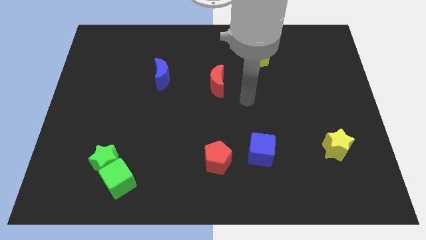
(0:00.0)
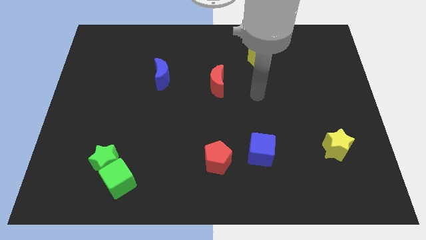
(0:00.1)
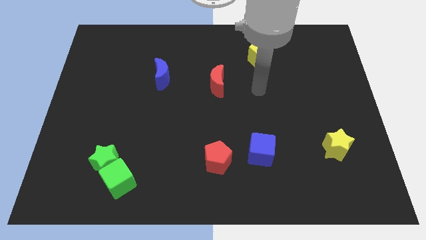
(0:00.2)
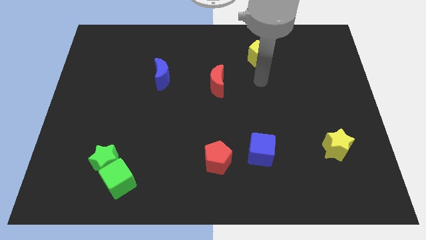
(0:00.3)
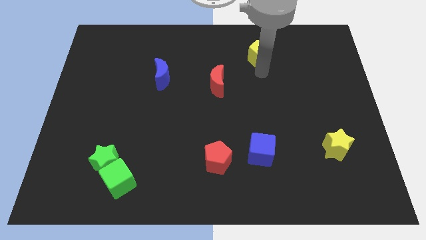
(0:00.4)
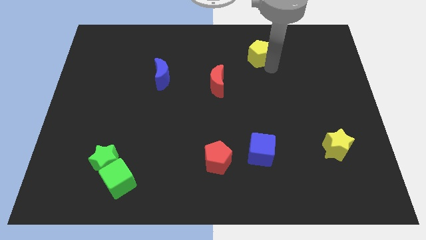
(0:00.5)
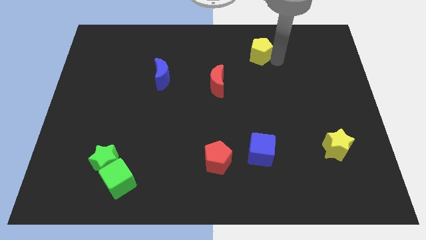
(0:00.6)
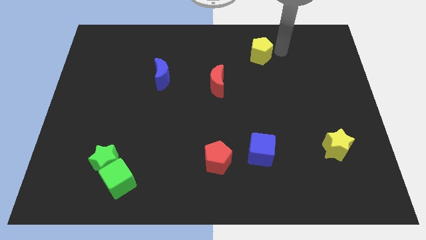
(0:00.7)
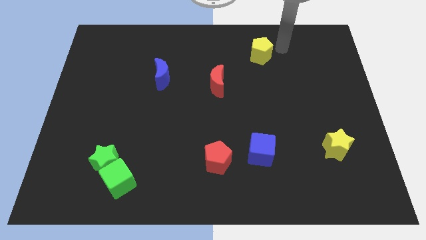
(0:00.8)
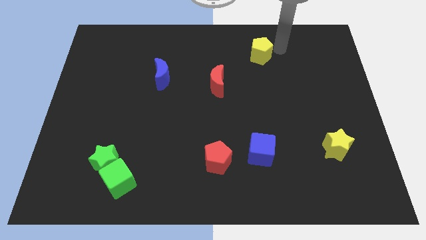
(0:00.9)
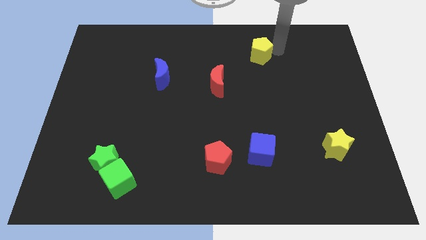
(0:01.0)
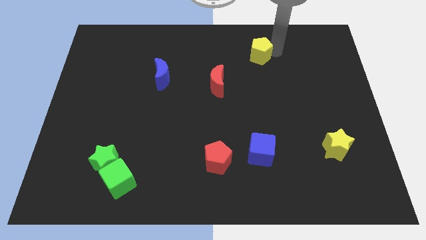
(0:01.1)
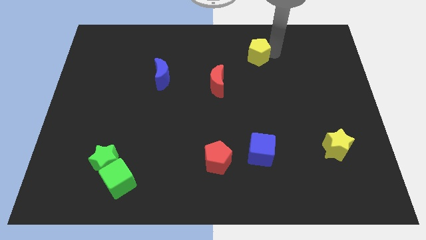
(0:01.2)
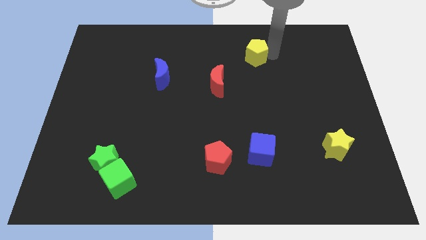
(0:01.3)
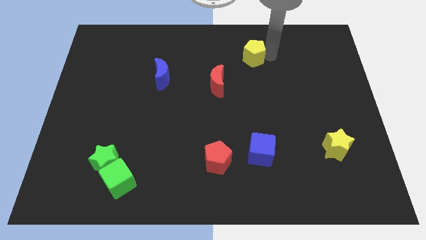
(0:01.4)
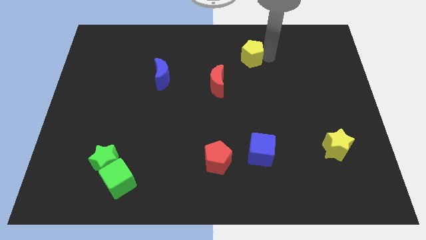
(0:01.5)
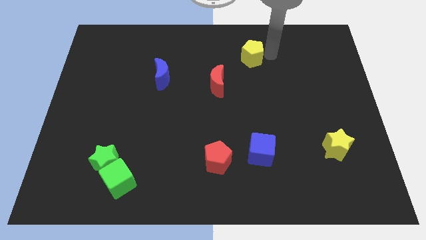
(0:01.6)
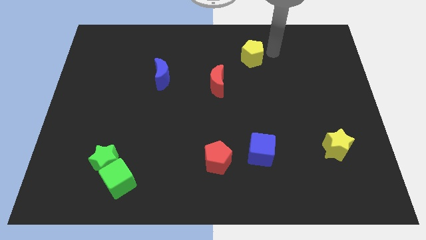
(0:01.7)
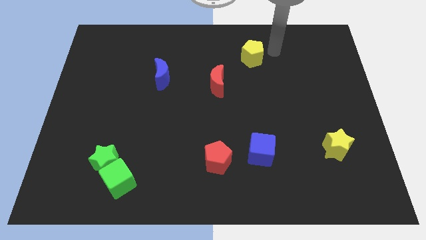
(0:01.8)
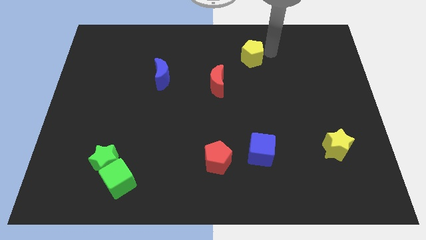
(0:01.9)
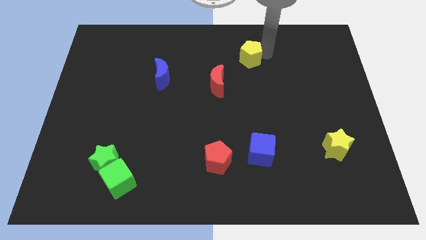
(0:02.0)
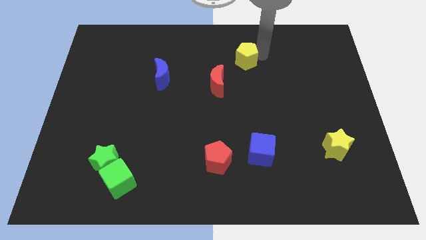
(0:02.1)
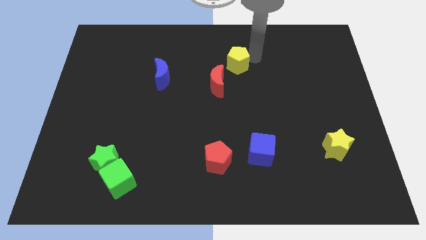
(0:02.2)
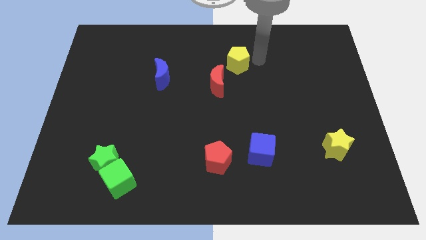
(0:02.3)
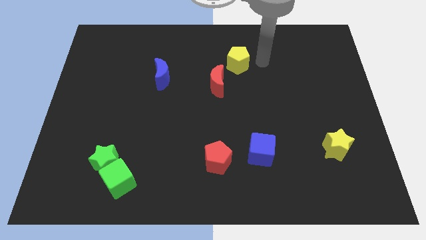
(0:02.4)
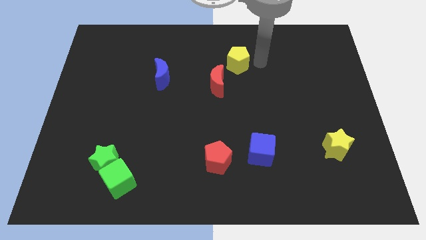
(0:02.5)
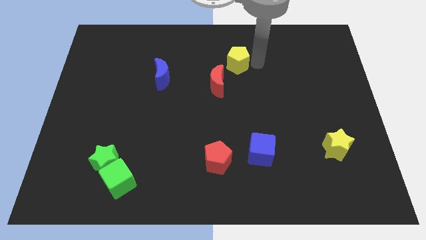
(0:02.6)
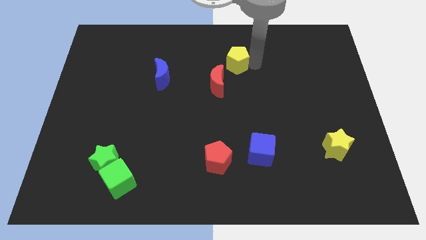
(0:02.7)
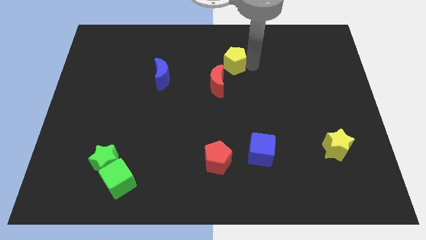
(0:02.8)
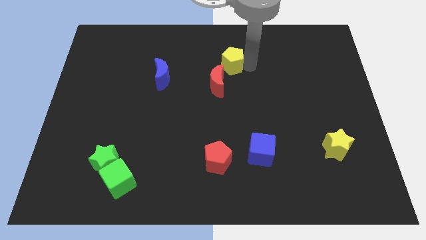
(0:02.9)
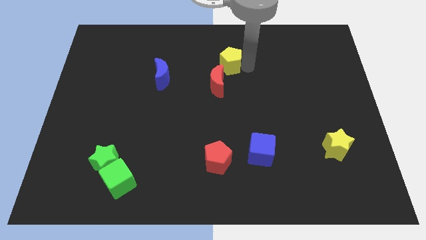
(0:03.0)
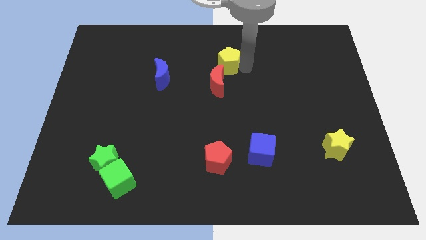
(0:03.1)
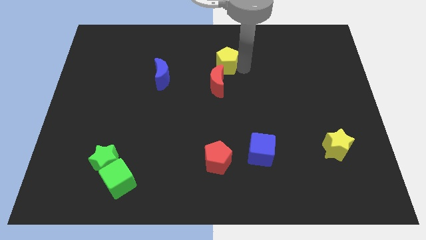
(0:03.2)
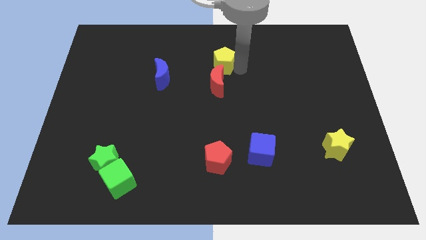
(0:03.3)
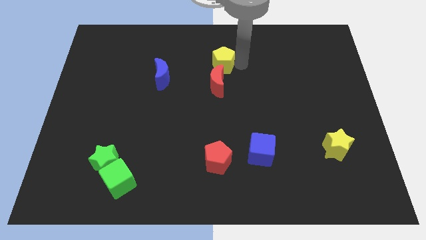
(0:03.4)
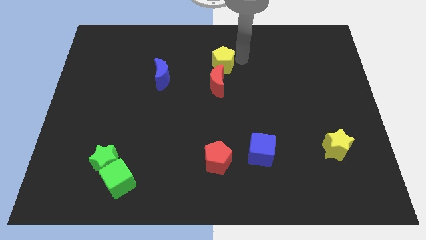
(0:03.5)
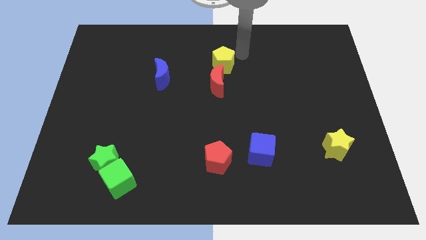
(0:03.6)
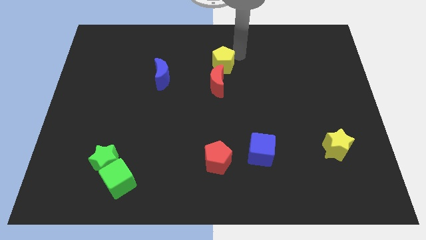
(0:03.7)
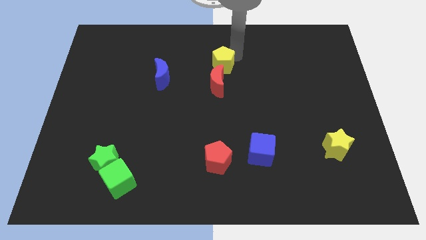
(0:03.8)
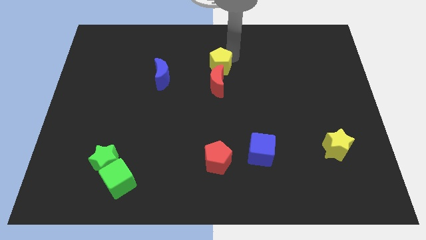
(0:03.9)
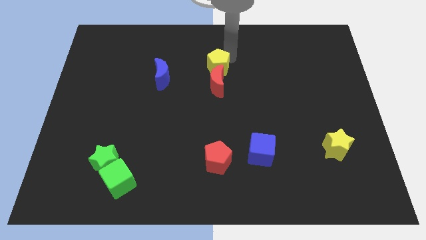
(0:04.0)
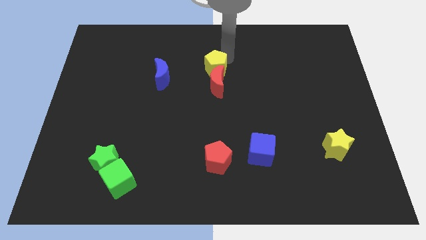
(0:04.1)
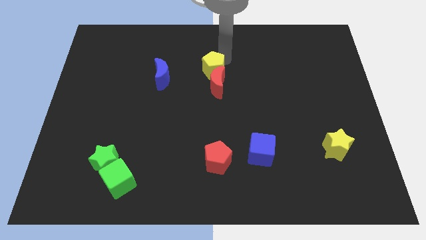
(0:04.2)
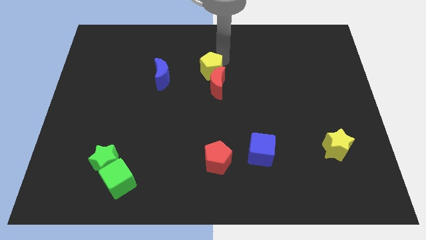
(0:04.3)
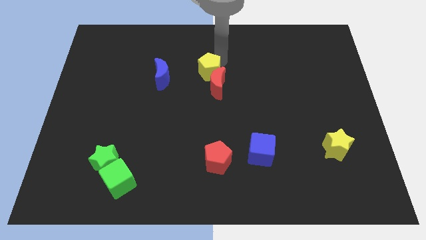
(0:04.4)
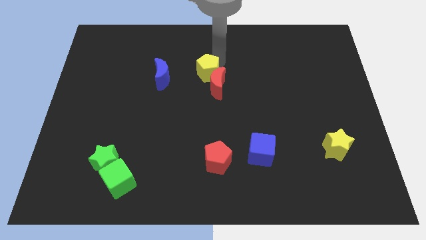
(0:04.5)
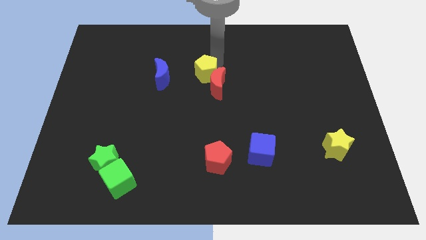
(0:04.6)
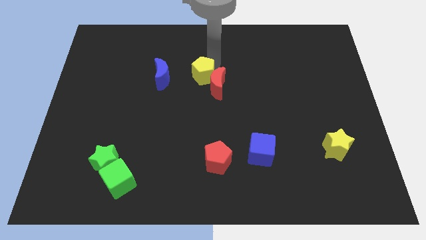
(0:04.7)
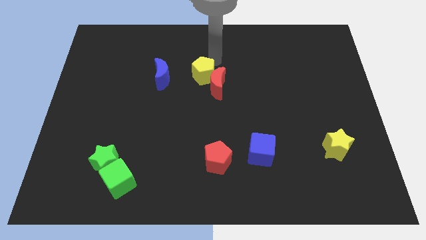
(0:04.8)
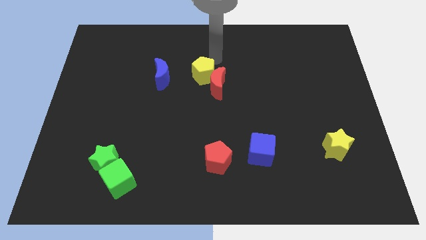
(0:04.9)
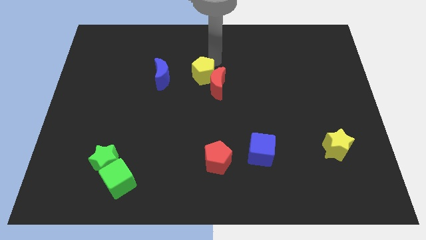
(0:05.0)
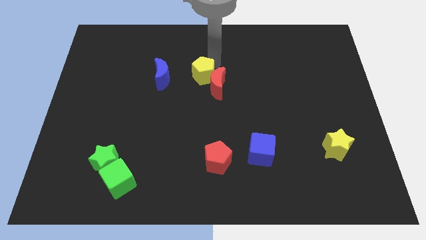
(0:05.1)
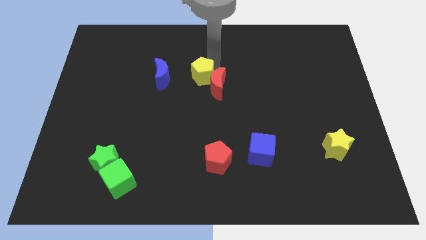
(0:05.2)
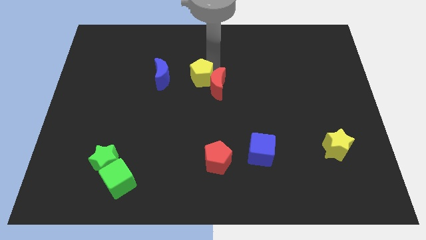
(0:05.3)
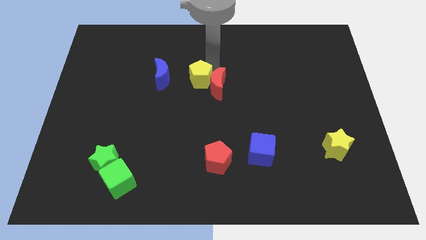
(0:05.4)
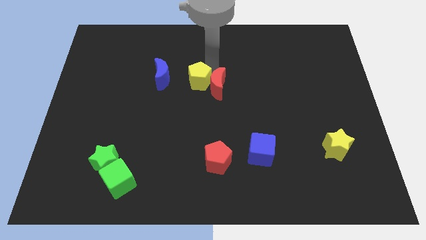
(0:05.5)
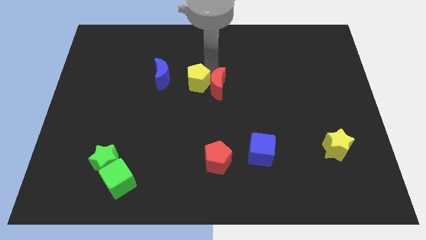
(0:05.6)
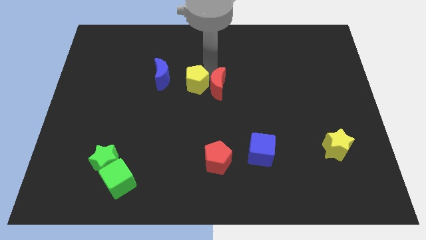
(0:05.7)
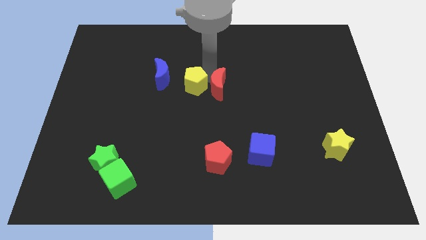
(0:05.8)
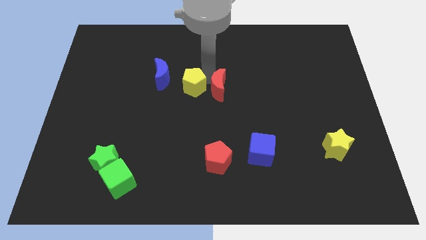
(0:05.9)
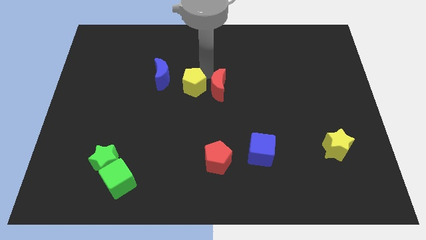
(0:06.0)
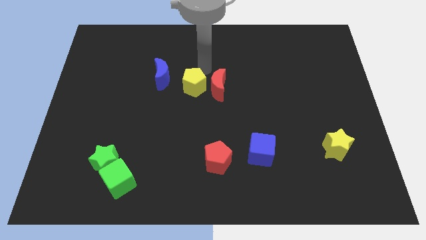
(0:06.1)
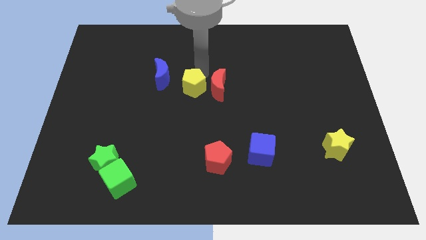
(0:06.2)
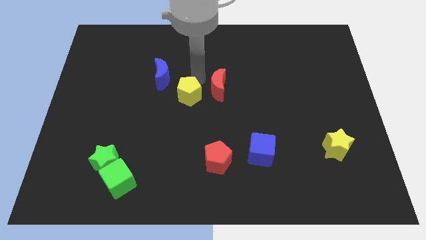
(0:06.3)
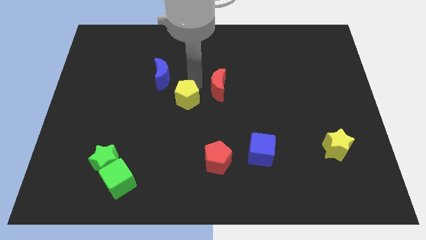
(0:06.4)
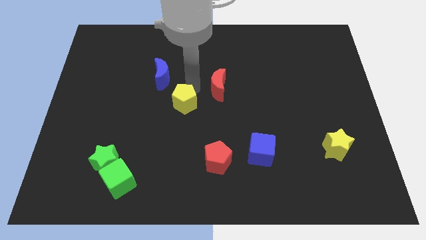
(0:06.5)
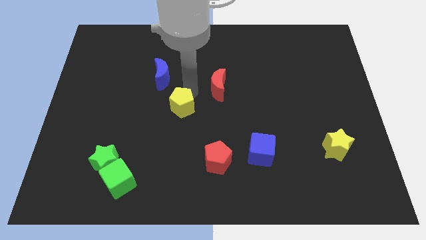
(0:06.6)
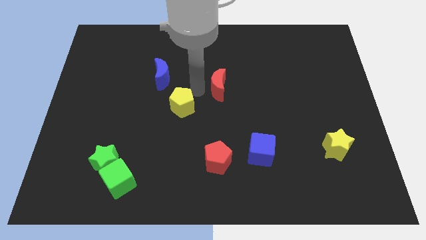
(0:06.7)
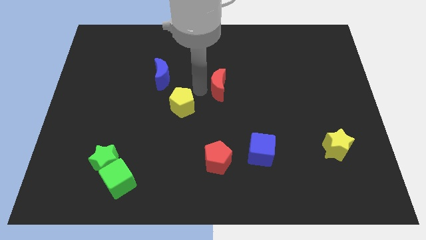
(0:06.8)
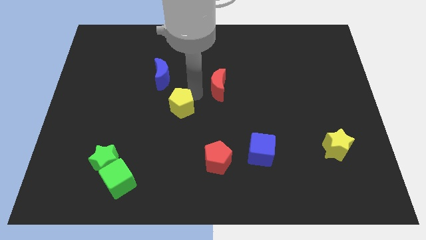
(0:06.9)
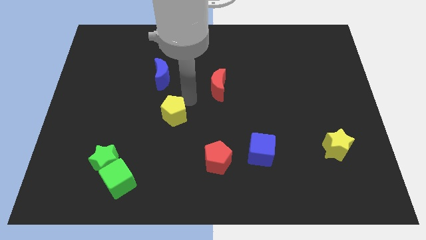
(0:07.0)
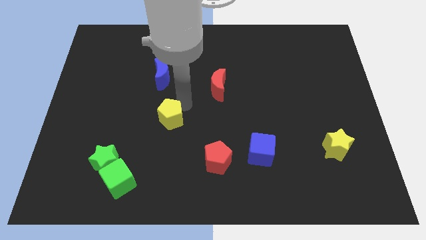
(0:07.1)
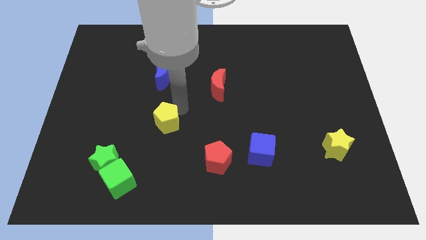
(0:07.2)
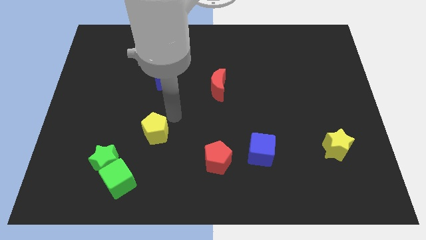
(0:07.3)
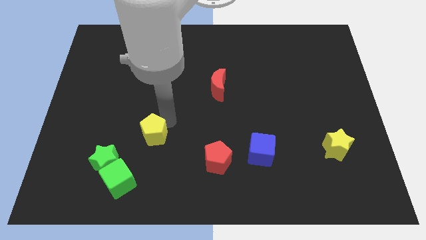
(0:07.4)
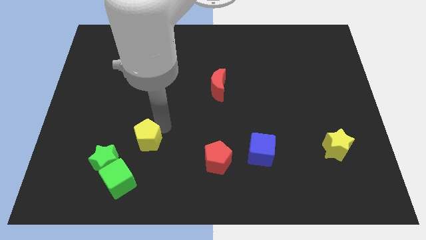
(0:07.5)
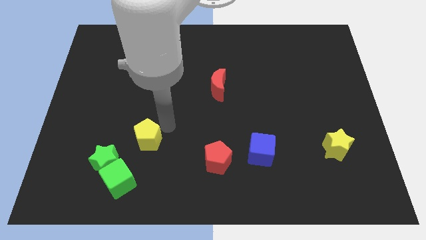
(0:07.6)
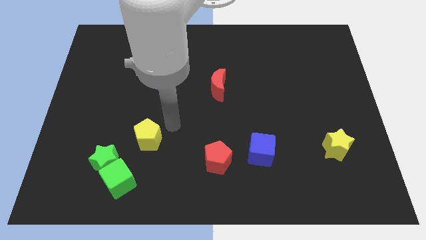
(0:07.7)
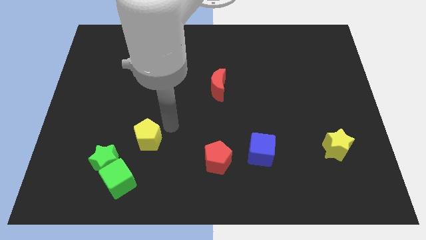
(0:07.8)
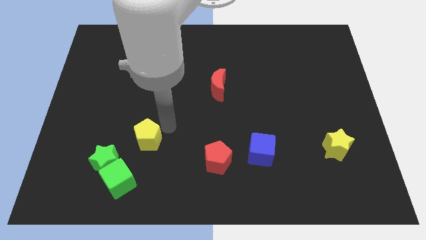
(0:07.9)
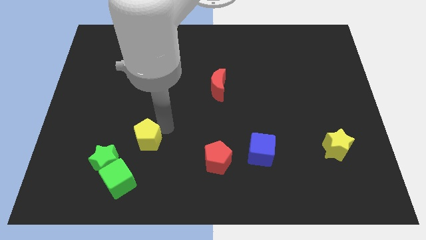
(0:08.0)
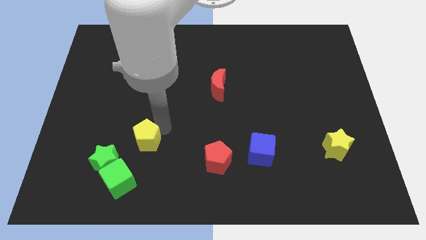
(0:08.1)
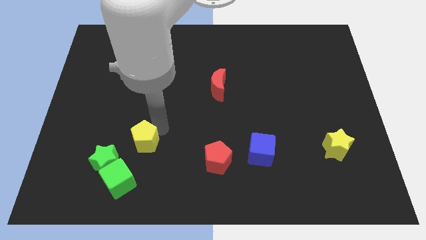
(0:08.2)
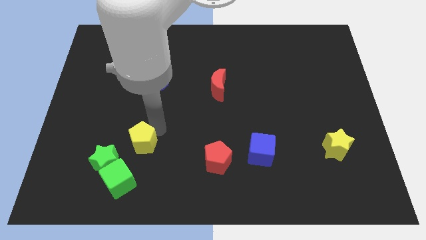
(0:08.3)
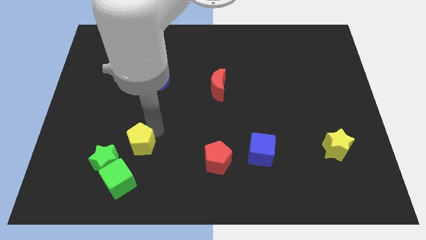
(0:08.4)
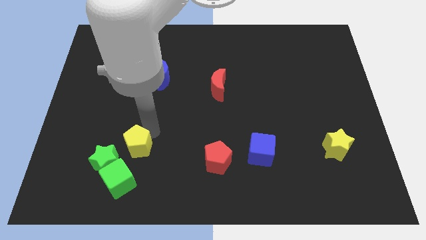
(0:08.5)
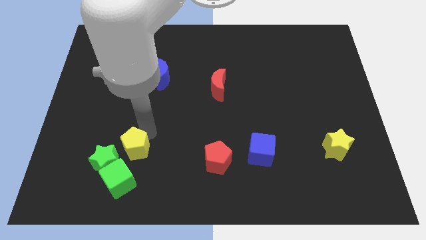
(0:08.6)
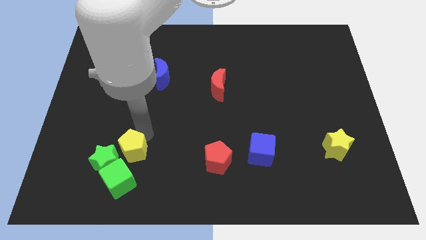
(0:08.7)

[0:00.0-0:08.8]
slide the yellow pentagon close to the green star
